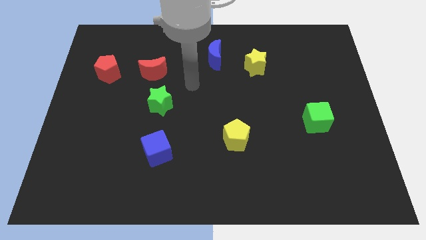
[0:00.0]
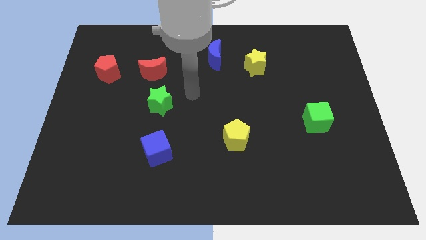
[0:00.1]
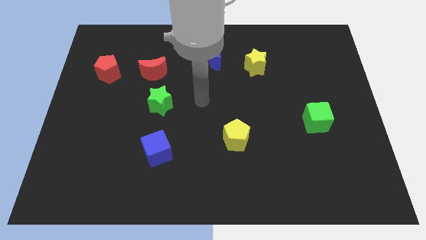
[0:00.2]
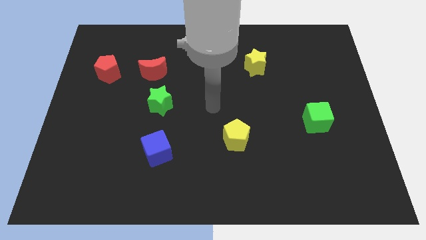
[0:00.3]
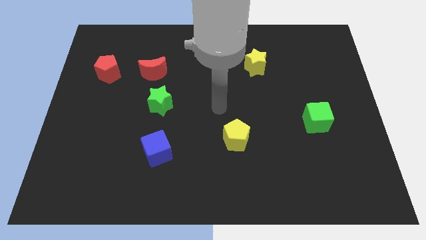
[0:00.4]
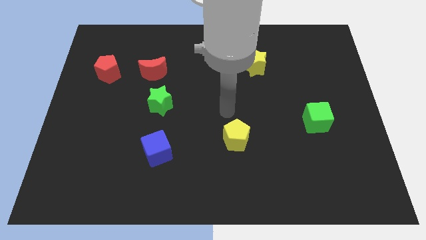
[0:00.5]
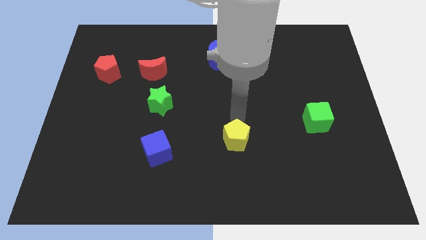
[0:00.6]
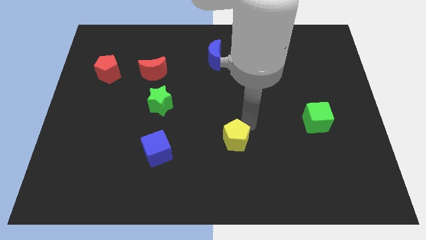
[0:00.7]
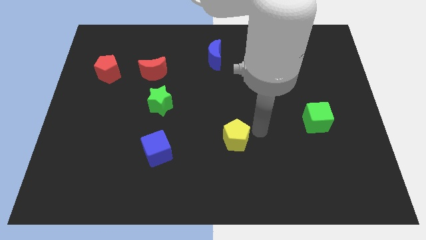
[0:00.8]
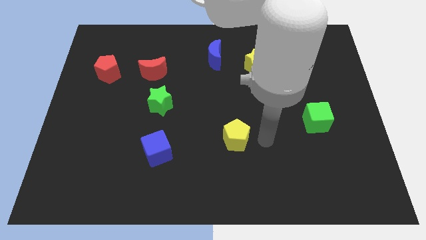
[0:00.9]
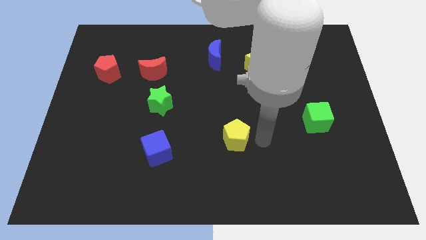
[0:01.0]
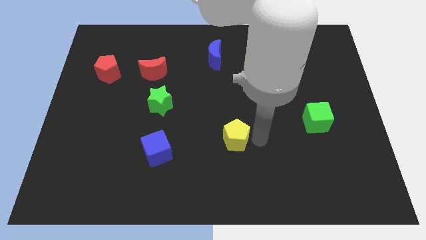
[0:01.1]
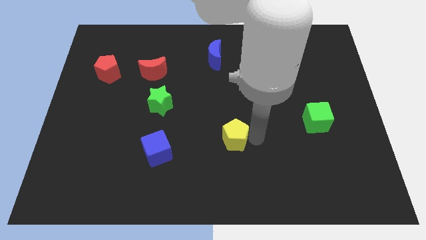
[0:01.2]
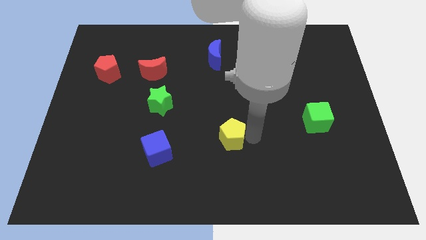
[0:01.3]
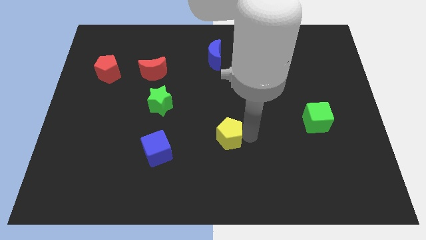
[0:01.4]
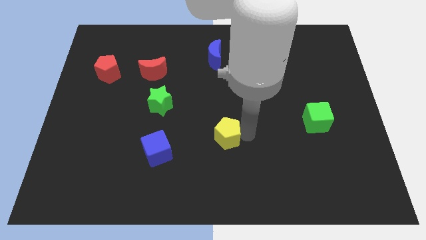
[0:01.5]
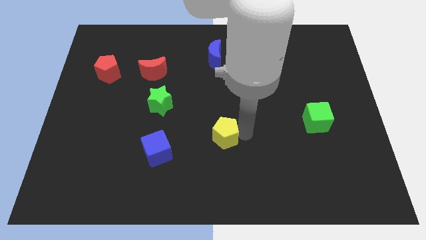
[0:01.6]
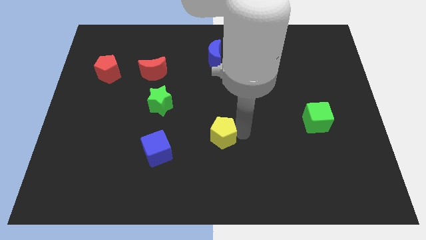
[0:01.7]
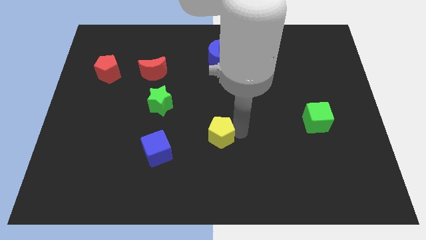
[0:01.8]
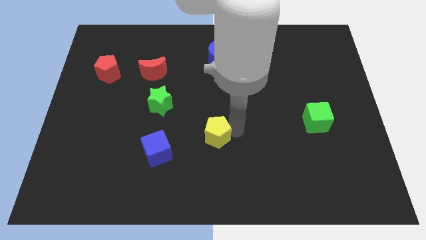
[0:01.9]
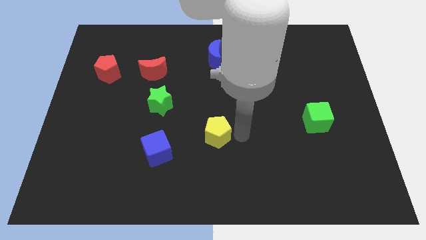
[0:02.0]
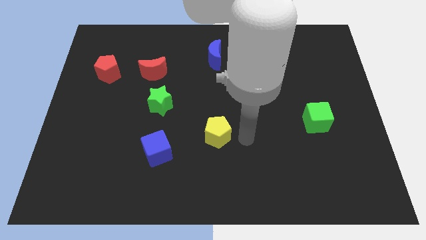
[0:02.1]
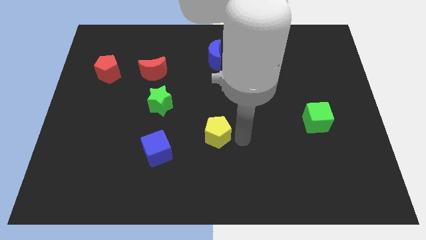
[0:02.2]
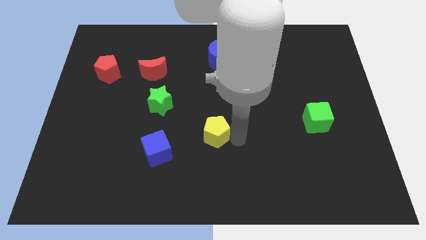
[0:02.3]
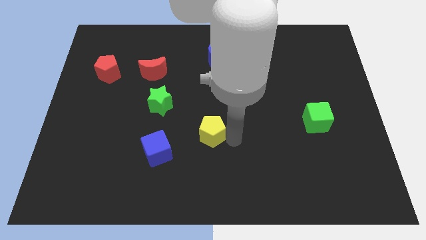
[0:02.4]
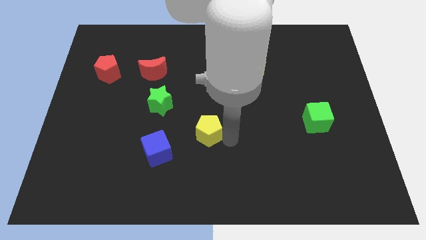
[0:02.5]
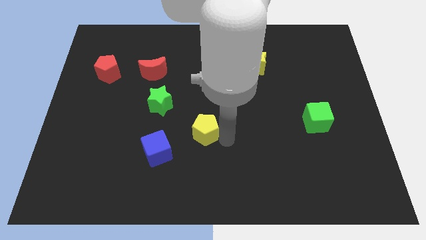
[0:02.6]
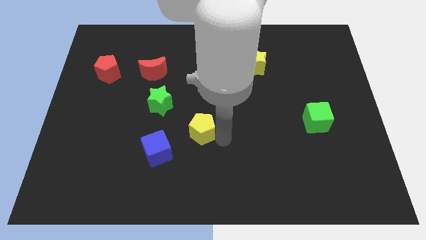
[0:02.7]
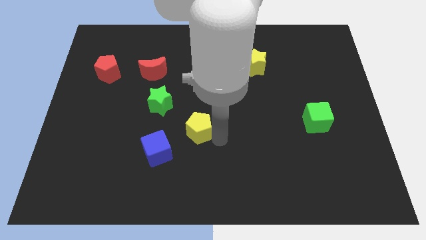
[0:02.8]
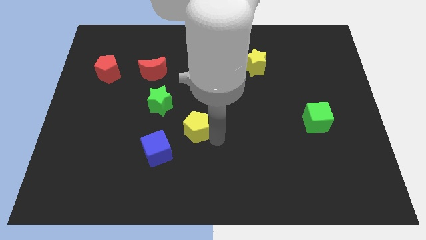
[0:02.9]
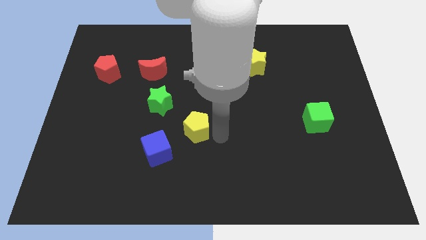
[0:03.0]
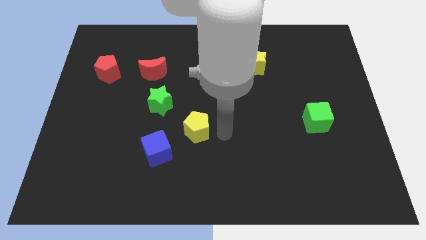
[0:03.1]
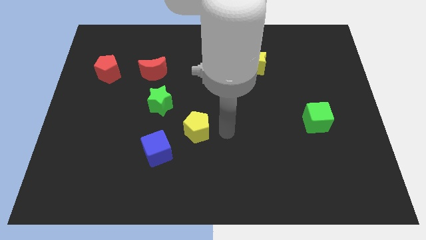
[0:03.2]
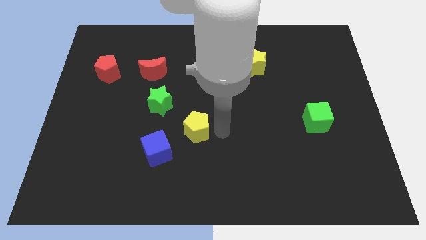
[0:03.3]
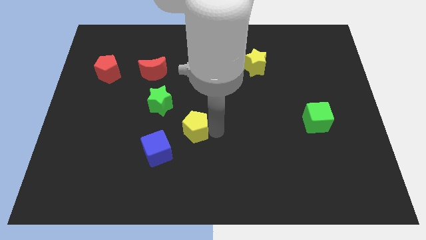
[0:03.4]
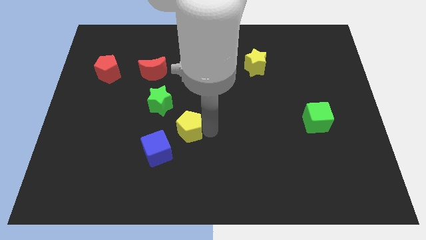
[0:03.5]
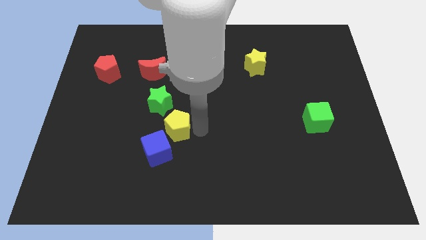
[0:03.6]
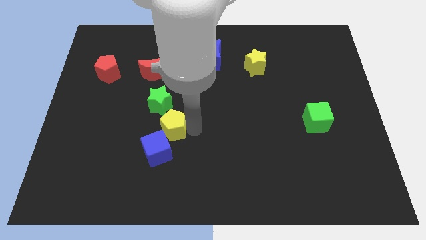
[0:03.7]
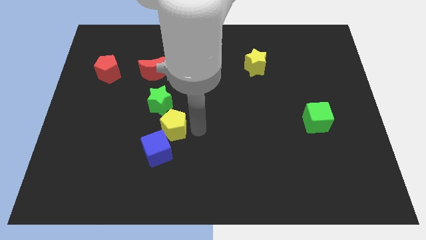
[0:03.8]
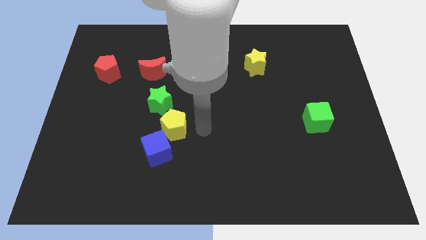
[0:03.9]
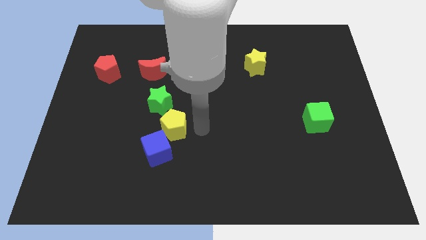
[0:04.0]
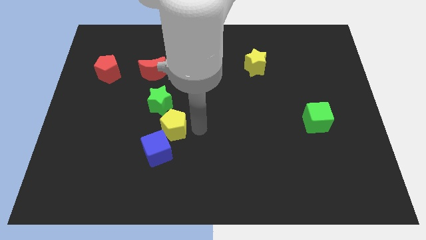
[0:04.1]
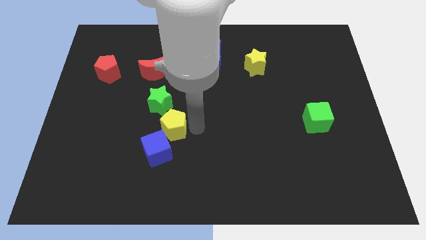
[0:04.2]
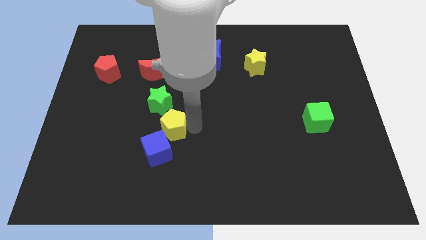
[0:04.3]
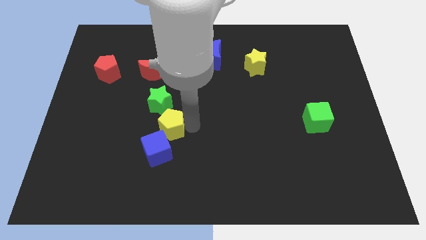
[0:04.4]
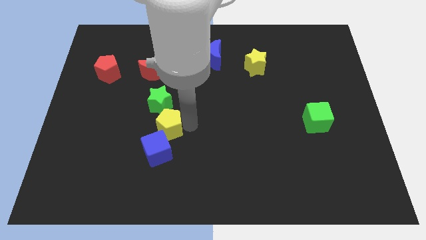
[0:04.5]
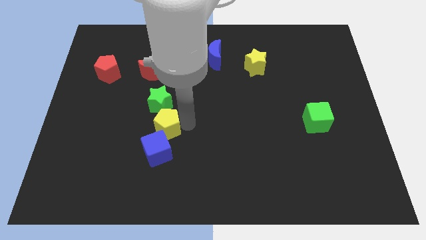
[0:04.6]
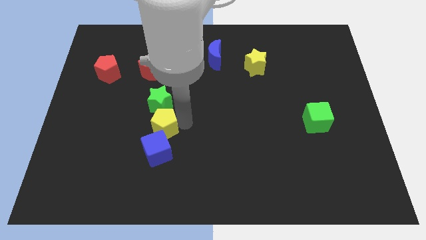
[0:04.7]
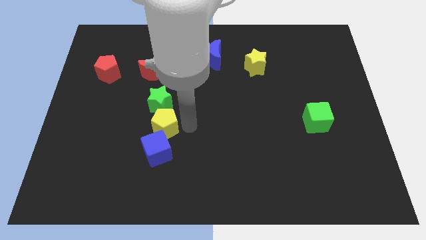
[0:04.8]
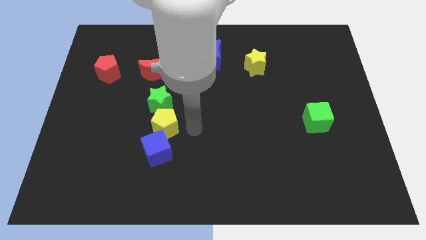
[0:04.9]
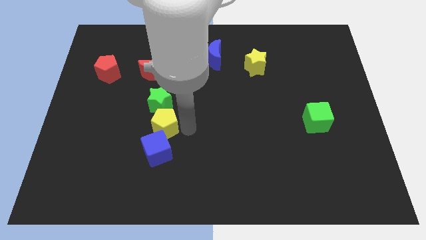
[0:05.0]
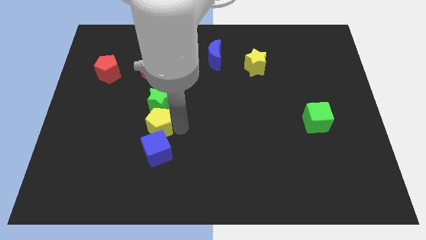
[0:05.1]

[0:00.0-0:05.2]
put the yellow pentagon to the bottom left of the green star

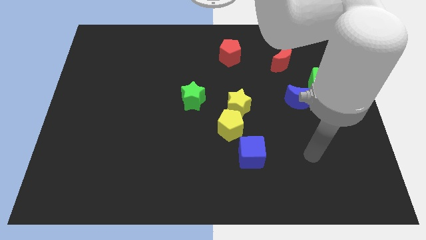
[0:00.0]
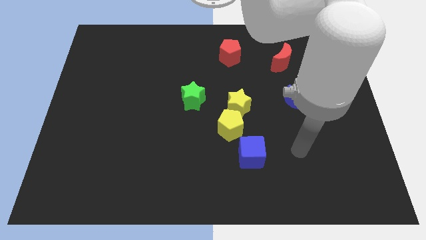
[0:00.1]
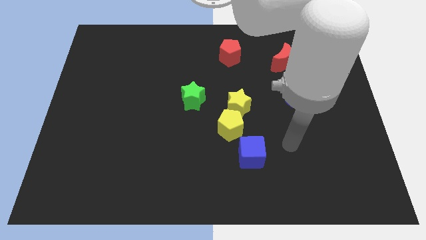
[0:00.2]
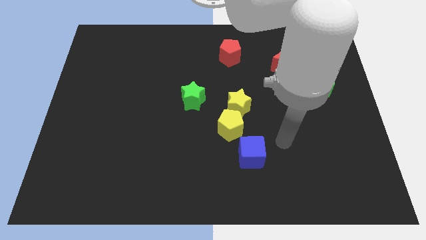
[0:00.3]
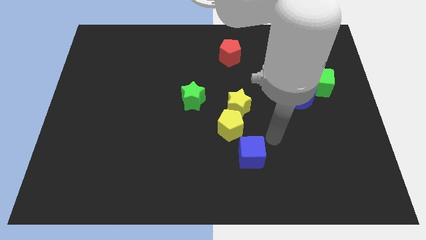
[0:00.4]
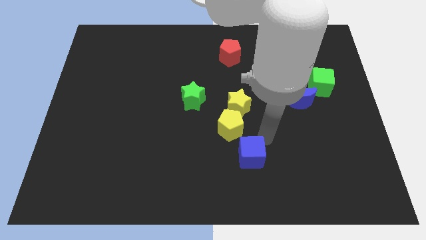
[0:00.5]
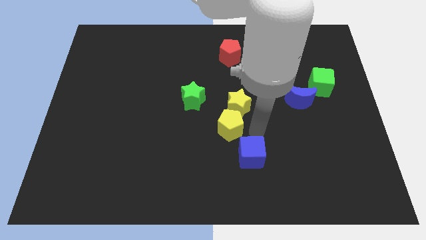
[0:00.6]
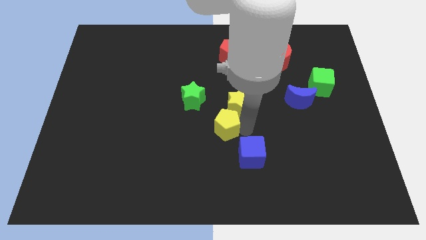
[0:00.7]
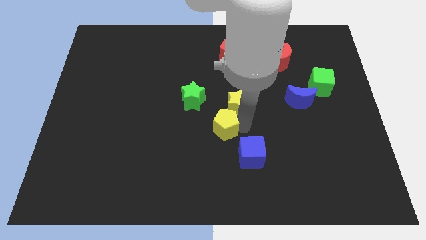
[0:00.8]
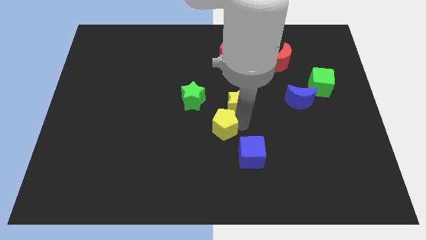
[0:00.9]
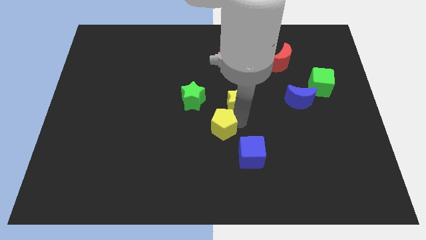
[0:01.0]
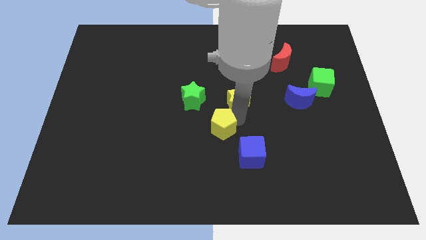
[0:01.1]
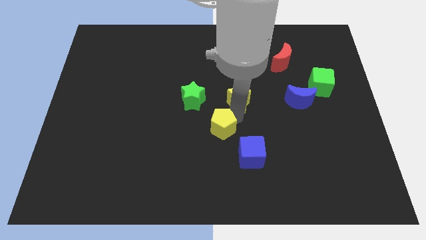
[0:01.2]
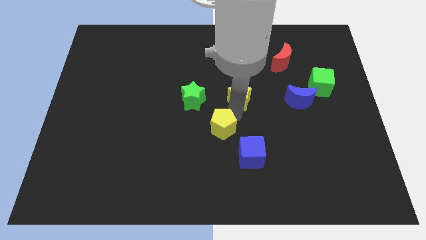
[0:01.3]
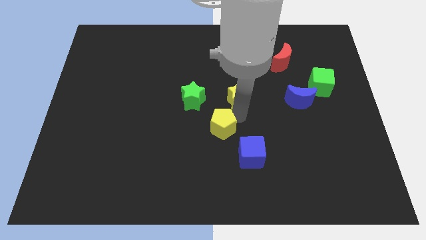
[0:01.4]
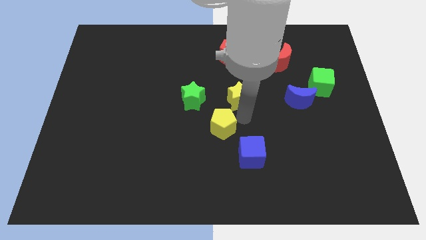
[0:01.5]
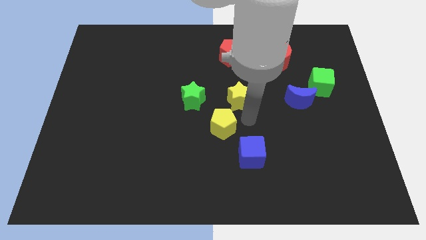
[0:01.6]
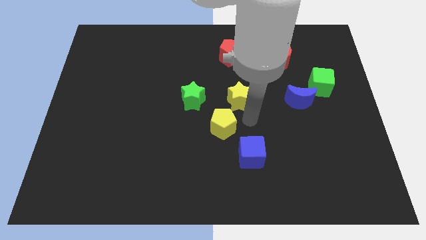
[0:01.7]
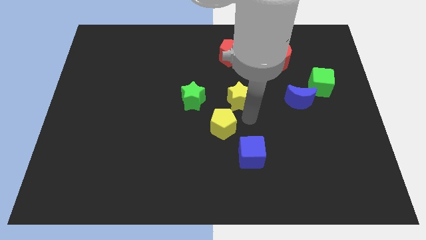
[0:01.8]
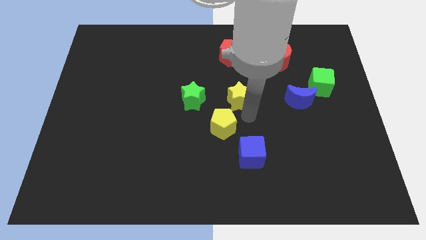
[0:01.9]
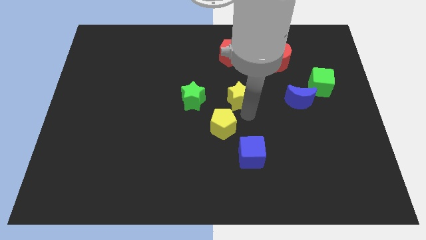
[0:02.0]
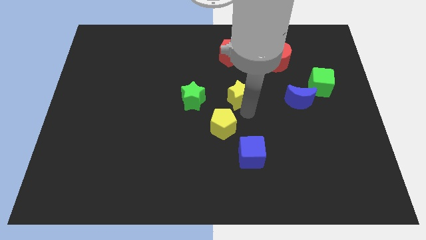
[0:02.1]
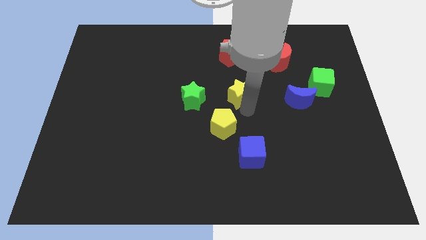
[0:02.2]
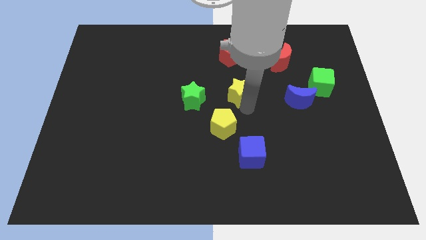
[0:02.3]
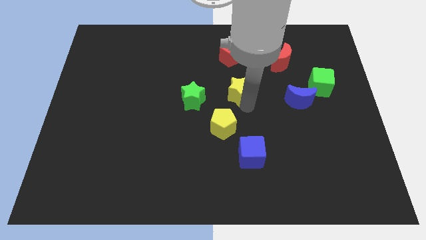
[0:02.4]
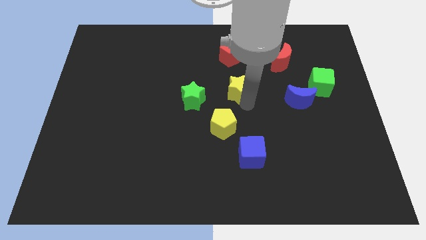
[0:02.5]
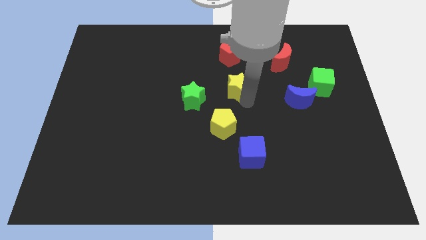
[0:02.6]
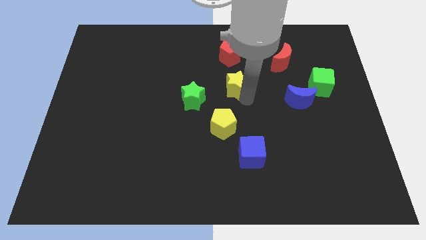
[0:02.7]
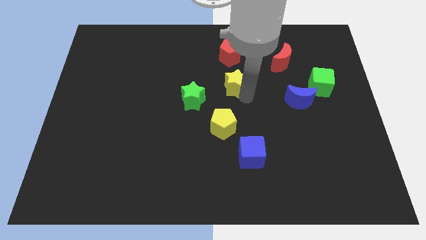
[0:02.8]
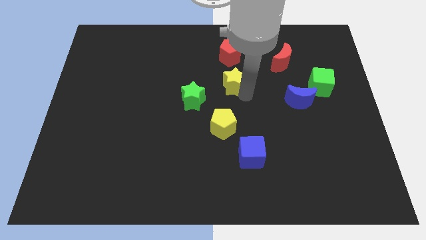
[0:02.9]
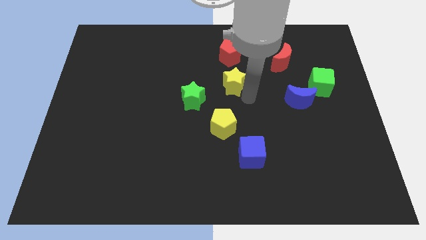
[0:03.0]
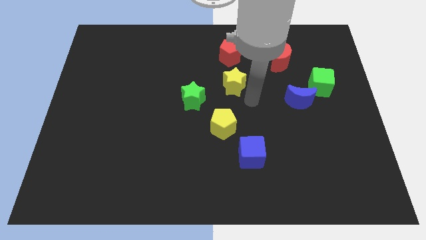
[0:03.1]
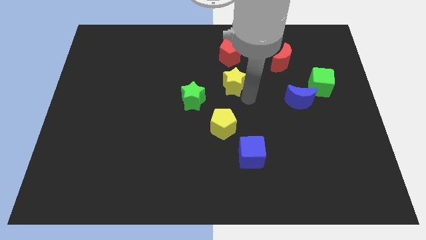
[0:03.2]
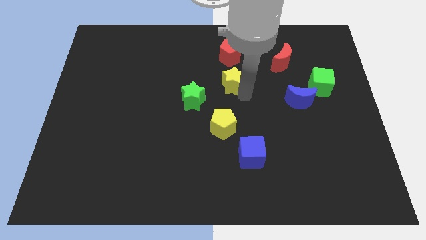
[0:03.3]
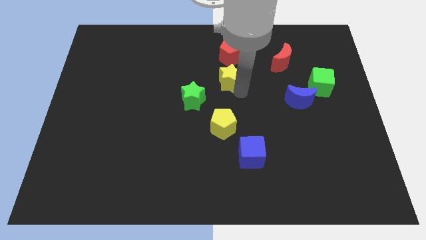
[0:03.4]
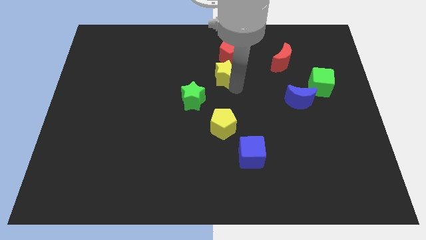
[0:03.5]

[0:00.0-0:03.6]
put the yellow star to the bottom left of the red pentagon
